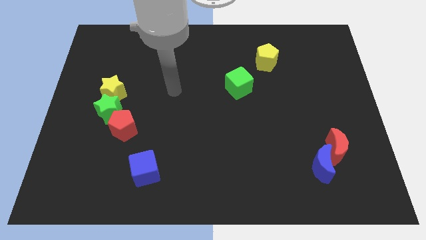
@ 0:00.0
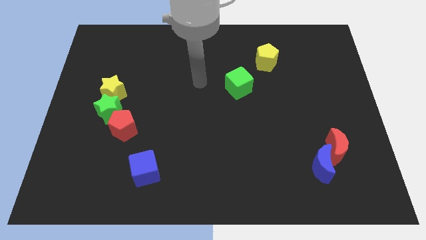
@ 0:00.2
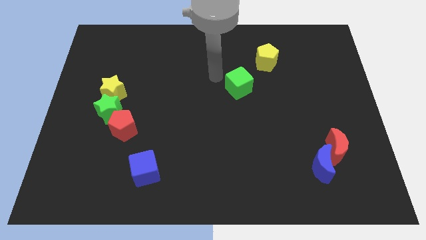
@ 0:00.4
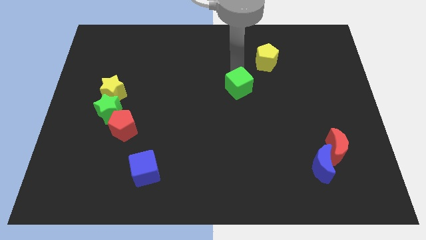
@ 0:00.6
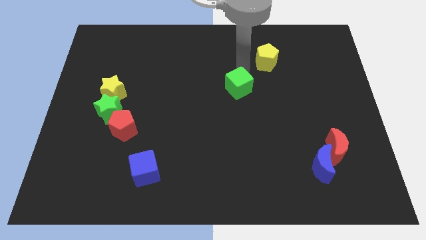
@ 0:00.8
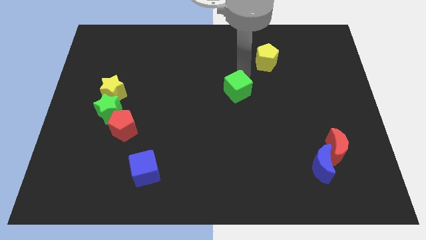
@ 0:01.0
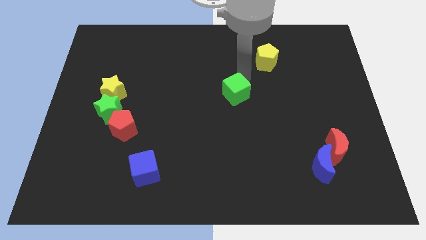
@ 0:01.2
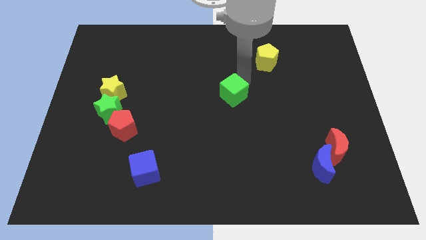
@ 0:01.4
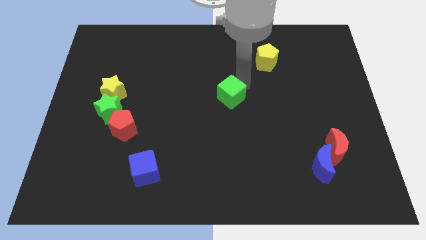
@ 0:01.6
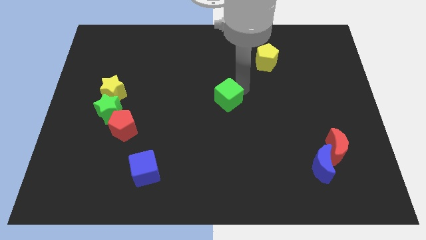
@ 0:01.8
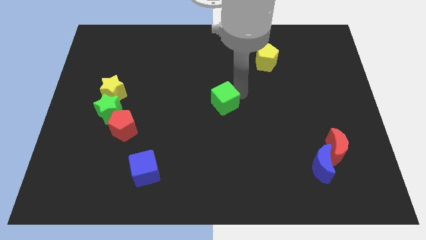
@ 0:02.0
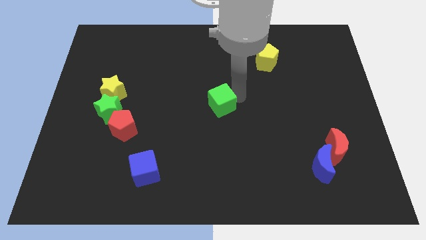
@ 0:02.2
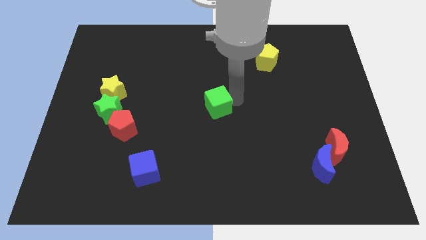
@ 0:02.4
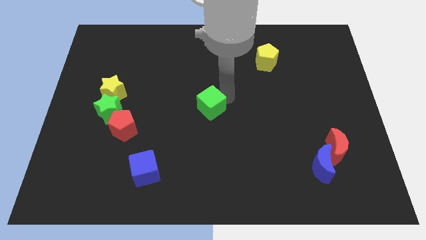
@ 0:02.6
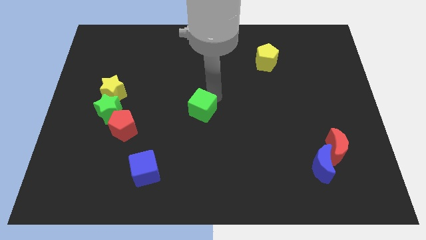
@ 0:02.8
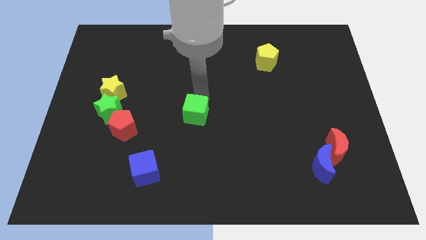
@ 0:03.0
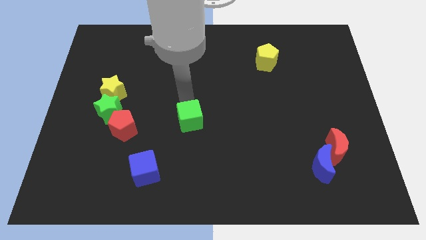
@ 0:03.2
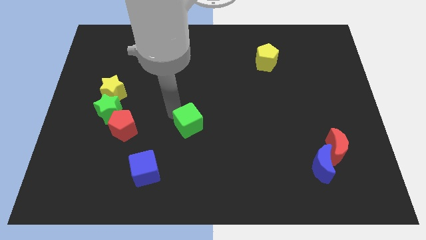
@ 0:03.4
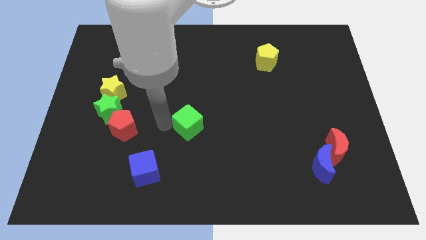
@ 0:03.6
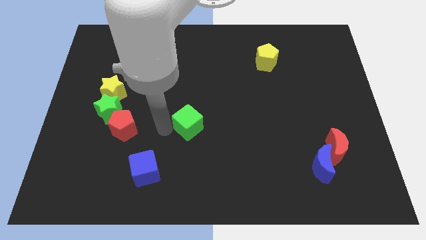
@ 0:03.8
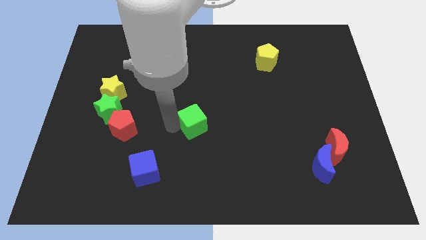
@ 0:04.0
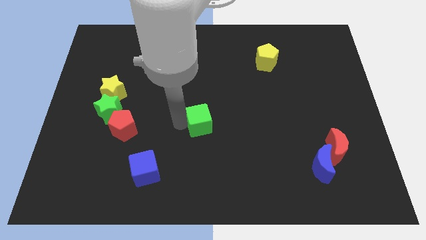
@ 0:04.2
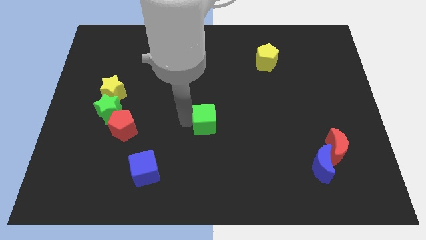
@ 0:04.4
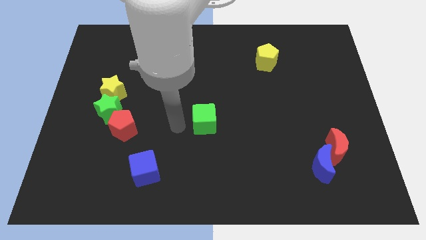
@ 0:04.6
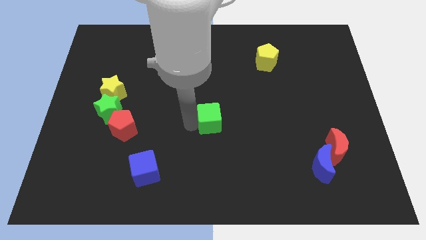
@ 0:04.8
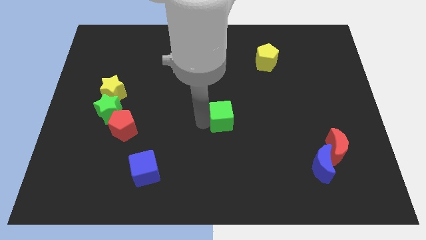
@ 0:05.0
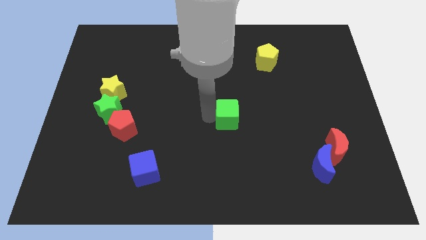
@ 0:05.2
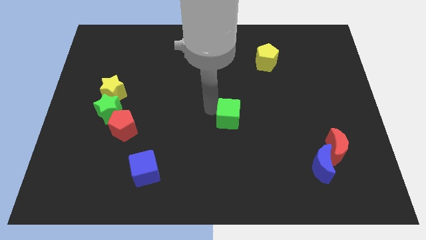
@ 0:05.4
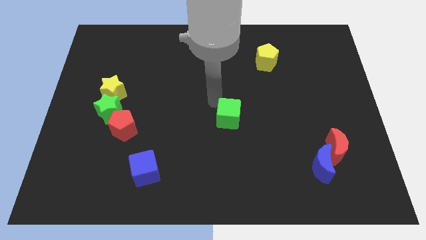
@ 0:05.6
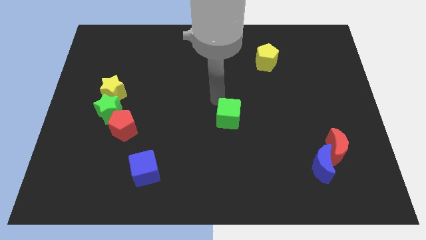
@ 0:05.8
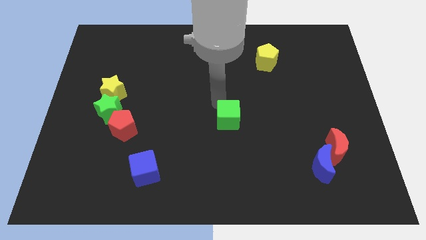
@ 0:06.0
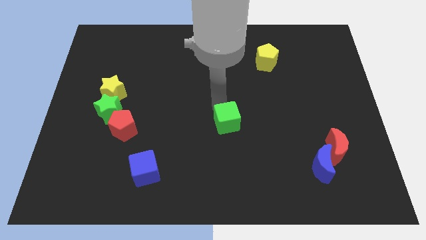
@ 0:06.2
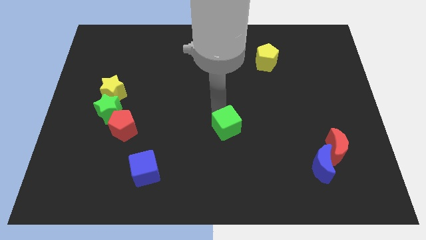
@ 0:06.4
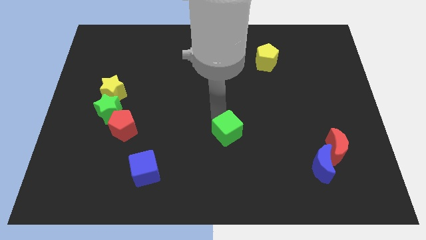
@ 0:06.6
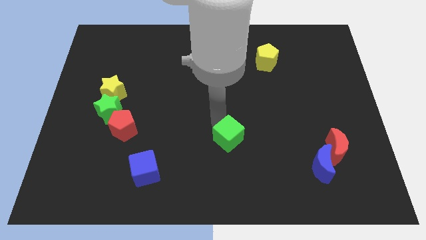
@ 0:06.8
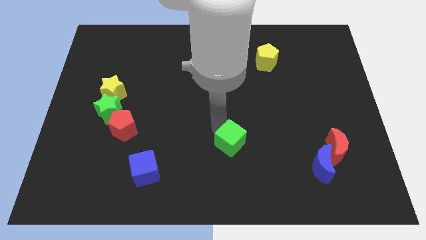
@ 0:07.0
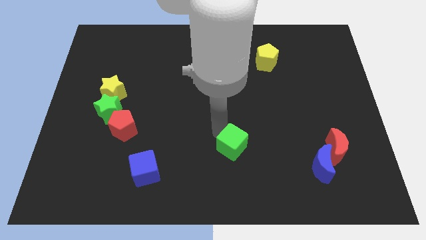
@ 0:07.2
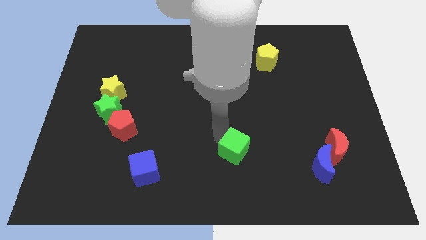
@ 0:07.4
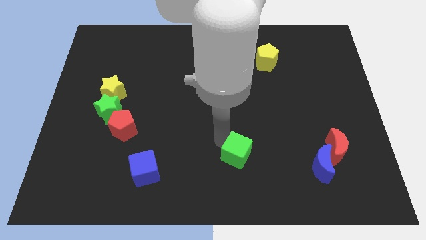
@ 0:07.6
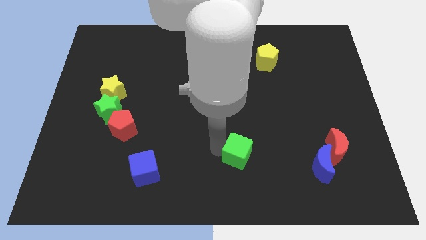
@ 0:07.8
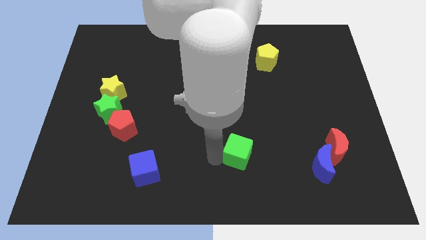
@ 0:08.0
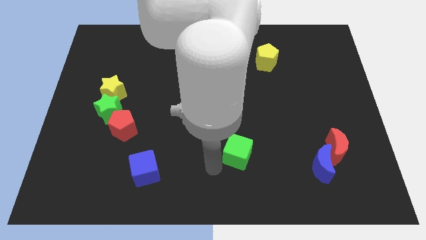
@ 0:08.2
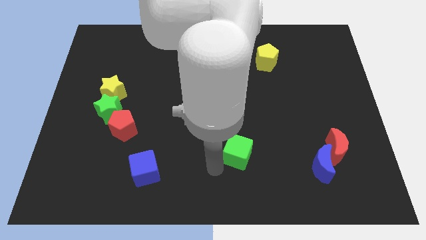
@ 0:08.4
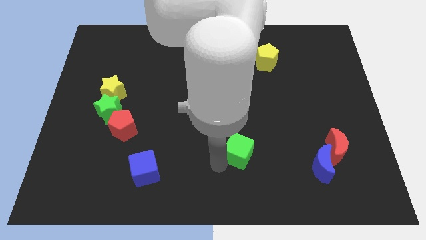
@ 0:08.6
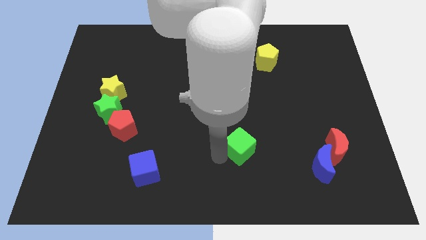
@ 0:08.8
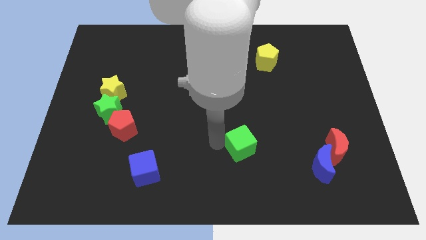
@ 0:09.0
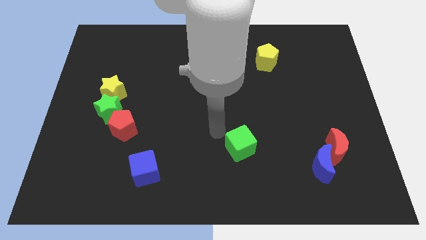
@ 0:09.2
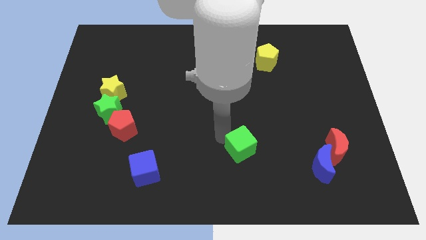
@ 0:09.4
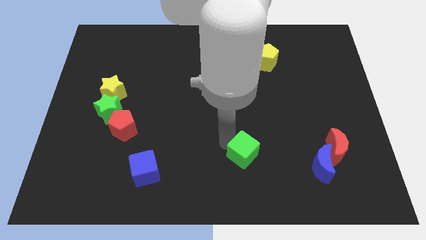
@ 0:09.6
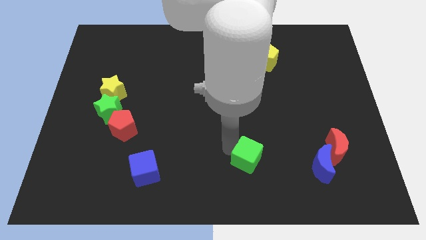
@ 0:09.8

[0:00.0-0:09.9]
move the green cube to the left side of the blue moon

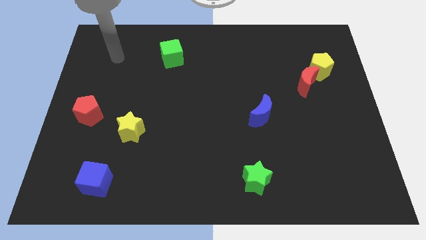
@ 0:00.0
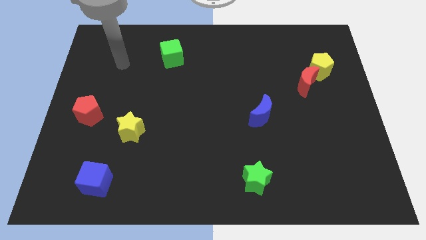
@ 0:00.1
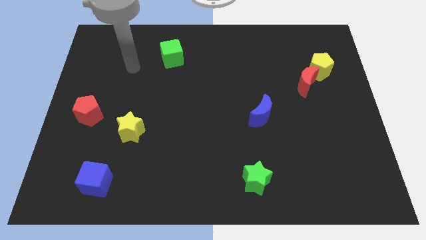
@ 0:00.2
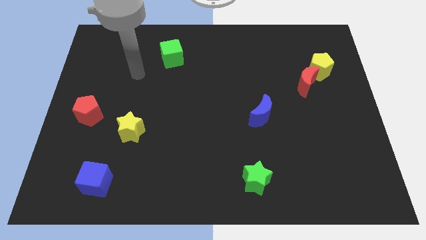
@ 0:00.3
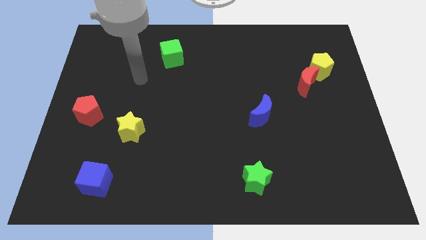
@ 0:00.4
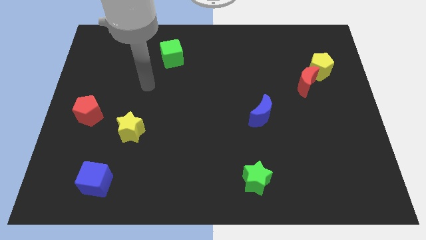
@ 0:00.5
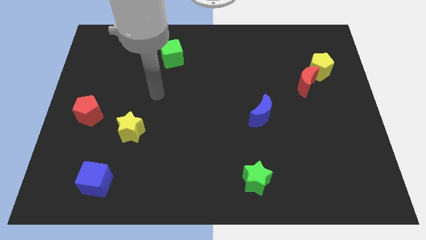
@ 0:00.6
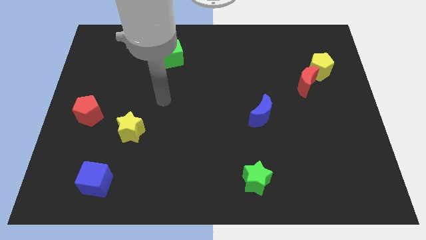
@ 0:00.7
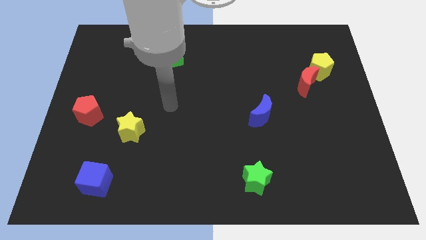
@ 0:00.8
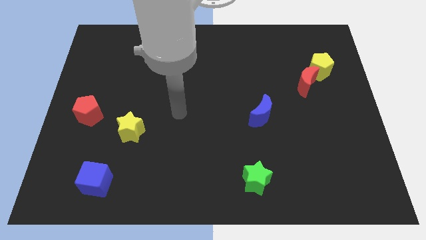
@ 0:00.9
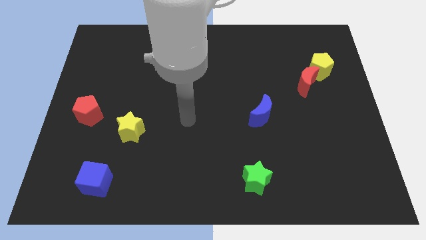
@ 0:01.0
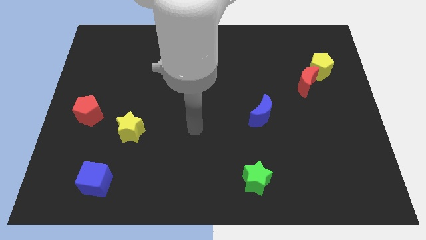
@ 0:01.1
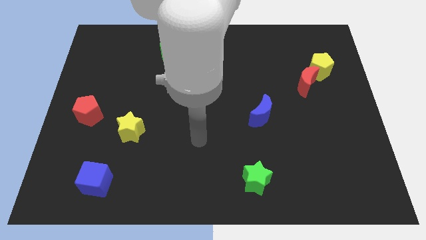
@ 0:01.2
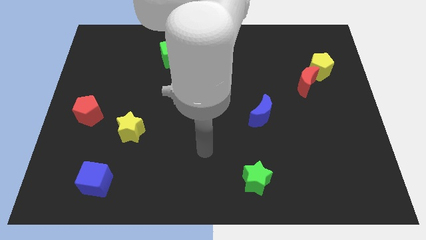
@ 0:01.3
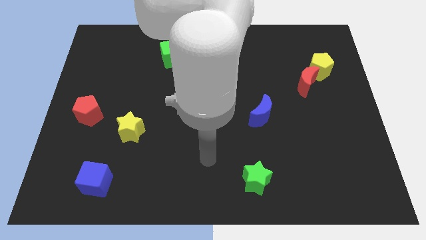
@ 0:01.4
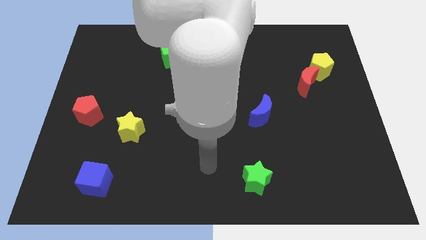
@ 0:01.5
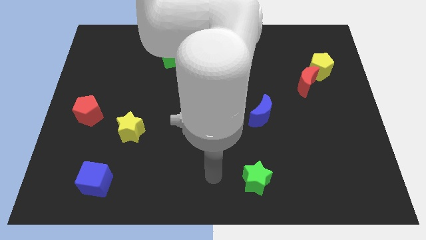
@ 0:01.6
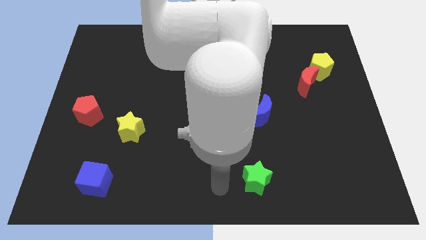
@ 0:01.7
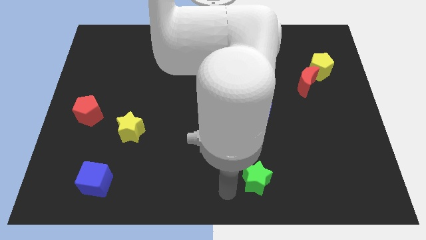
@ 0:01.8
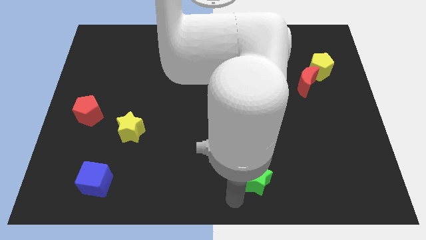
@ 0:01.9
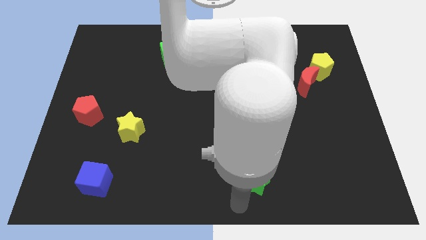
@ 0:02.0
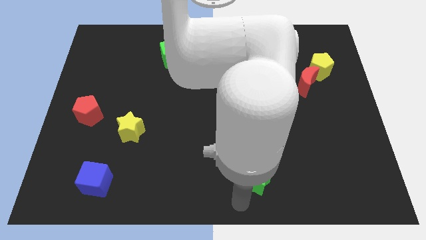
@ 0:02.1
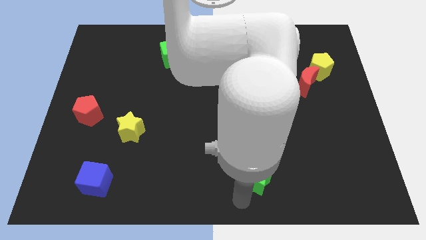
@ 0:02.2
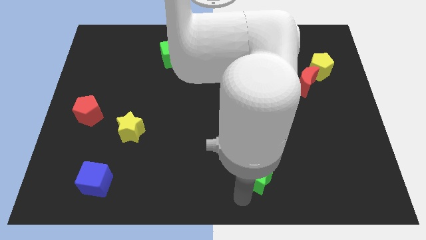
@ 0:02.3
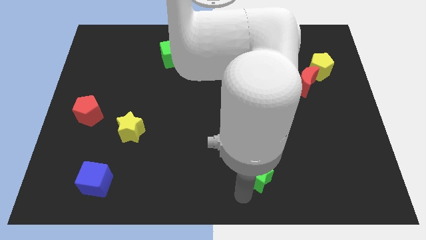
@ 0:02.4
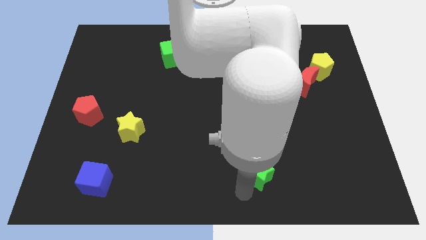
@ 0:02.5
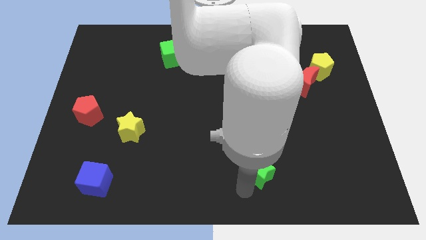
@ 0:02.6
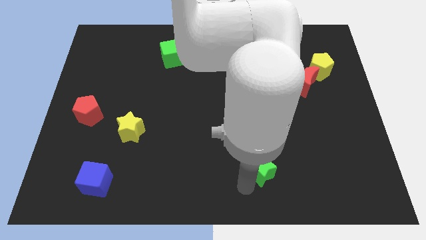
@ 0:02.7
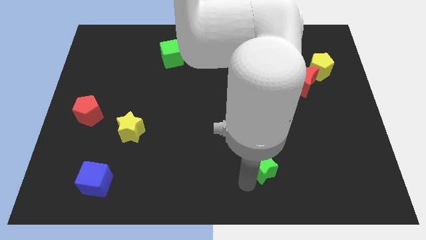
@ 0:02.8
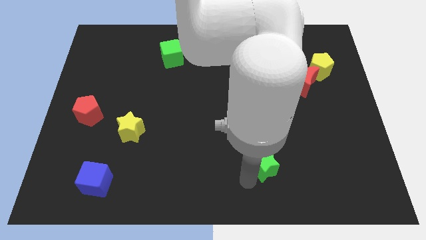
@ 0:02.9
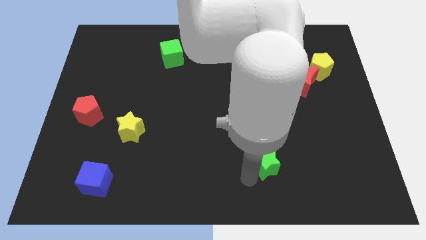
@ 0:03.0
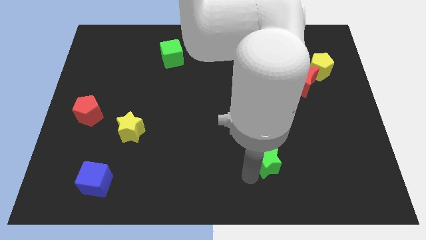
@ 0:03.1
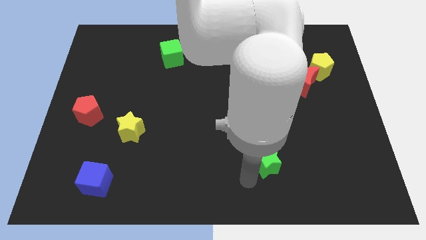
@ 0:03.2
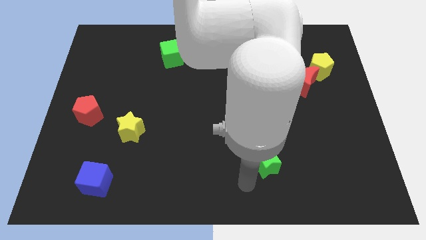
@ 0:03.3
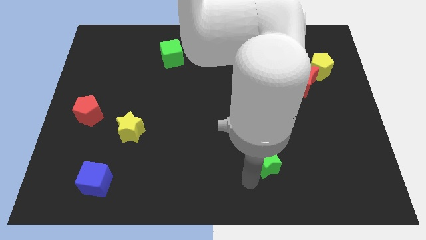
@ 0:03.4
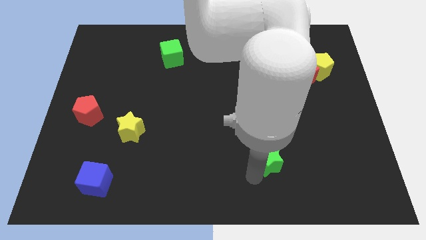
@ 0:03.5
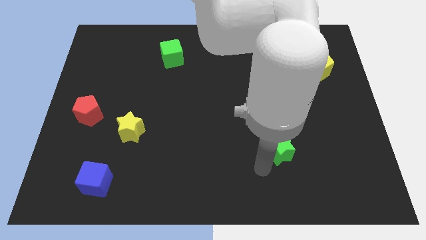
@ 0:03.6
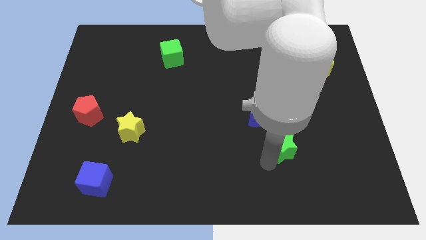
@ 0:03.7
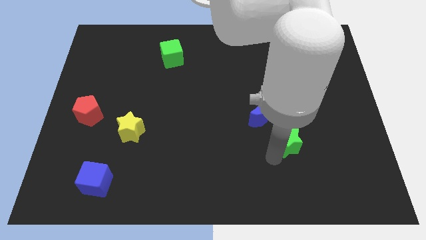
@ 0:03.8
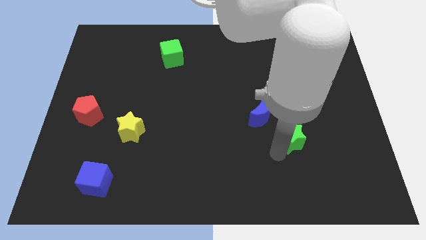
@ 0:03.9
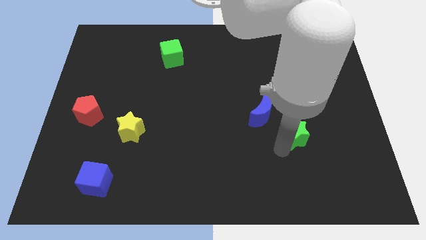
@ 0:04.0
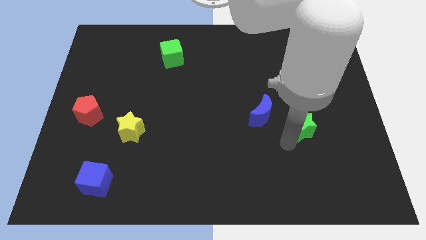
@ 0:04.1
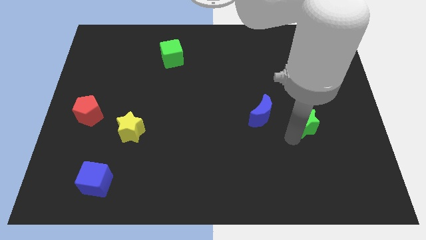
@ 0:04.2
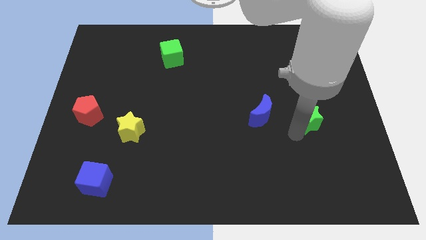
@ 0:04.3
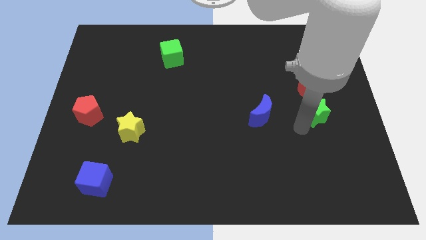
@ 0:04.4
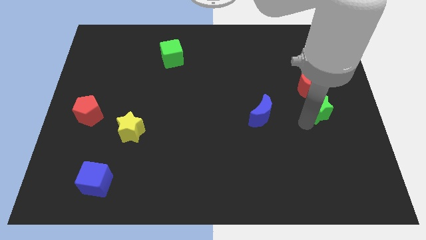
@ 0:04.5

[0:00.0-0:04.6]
move the green star diagonally down and to the right of the red moon
